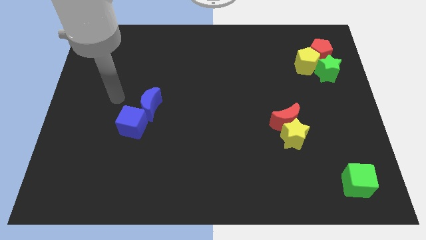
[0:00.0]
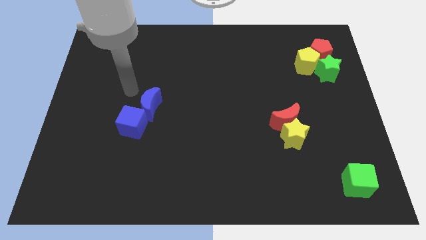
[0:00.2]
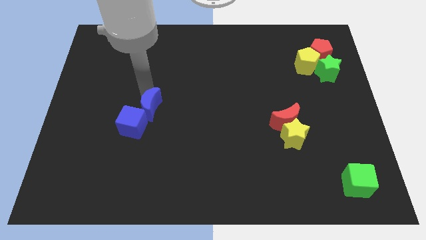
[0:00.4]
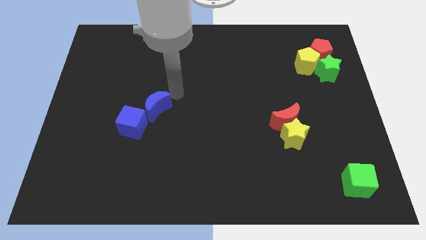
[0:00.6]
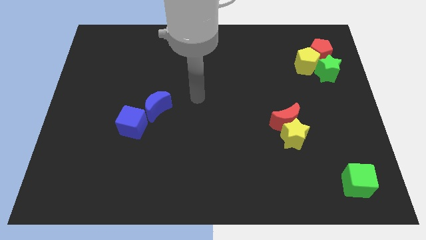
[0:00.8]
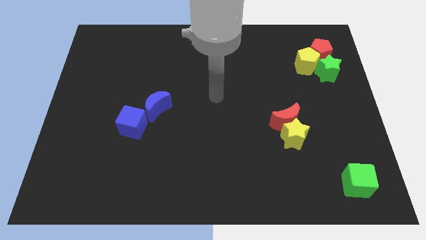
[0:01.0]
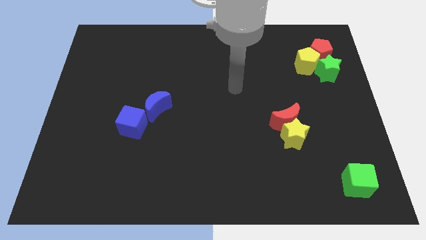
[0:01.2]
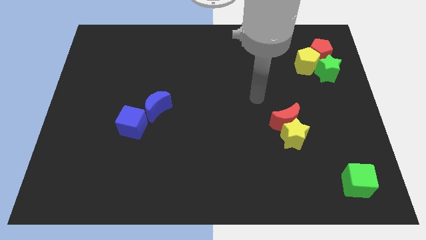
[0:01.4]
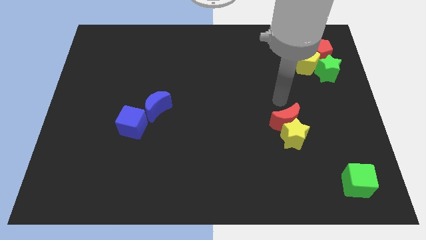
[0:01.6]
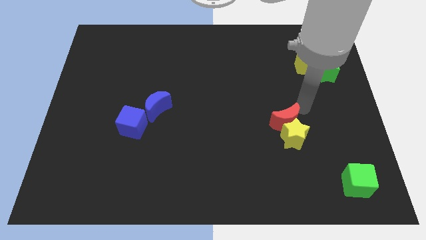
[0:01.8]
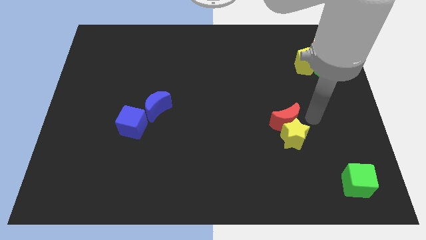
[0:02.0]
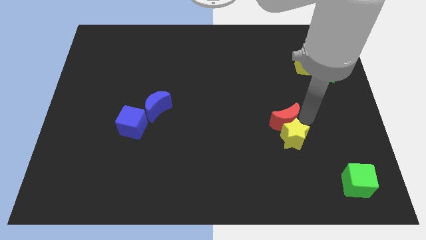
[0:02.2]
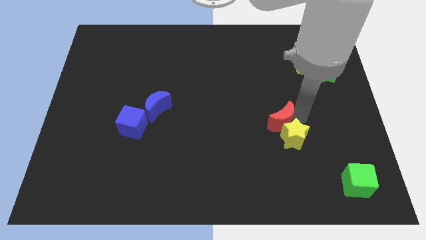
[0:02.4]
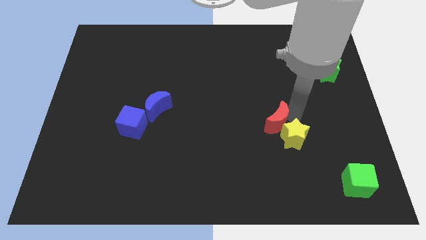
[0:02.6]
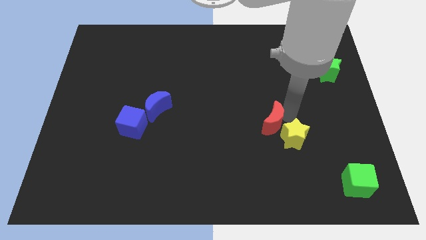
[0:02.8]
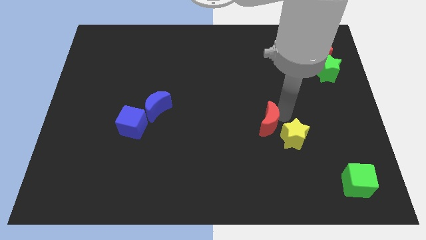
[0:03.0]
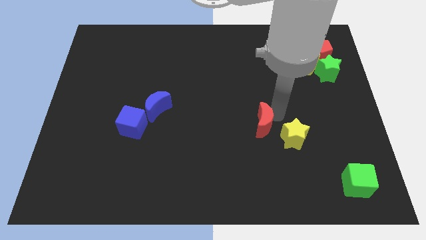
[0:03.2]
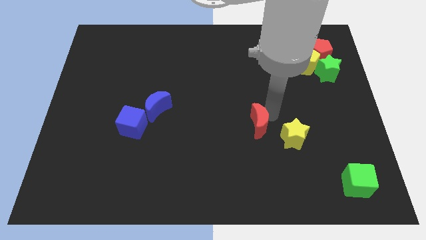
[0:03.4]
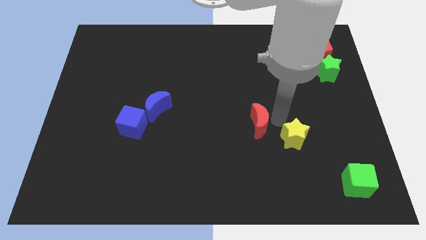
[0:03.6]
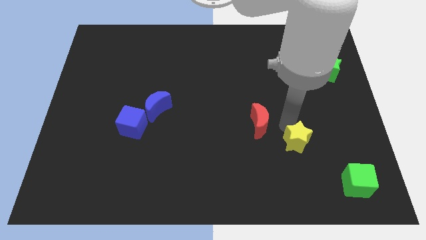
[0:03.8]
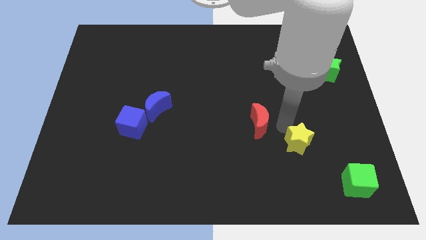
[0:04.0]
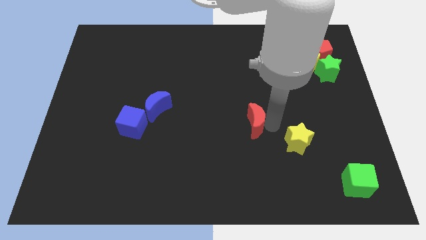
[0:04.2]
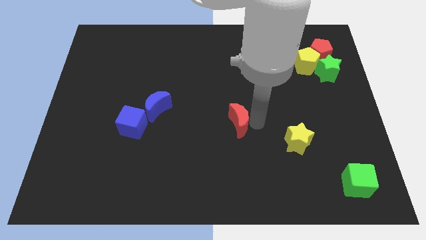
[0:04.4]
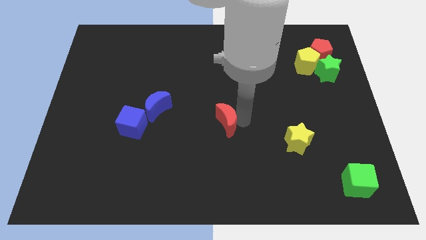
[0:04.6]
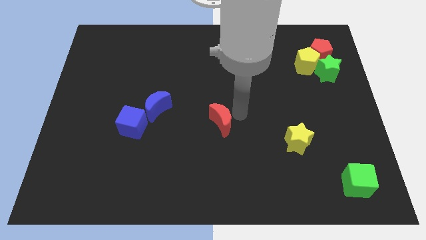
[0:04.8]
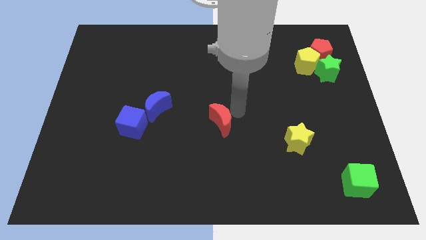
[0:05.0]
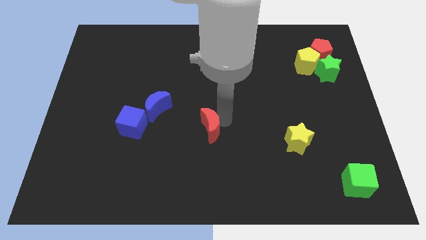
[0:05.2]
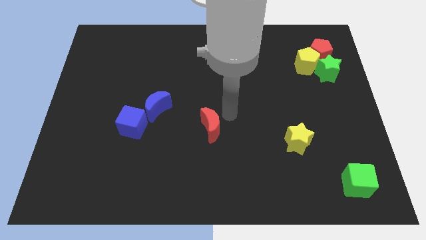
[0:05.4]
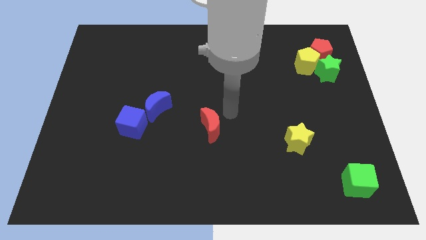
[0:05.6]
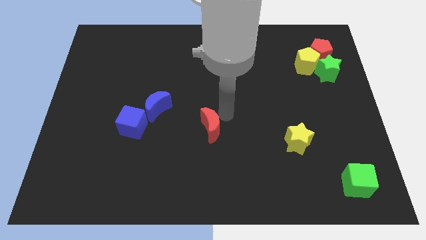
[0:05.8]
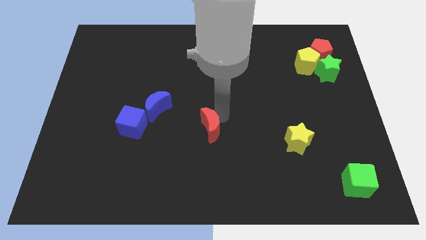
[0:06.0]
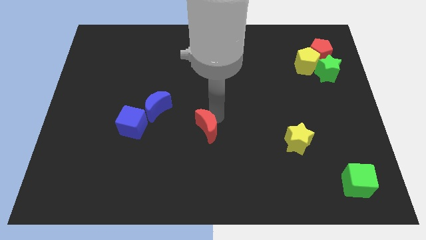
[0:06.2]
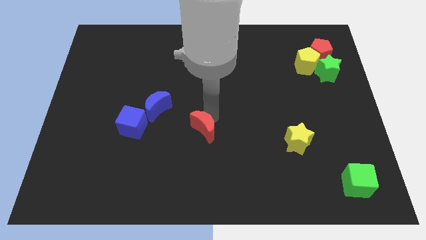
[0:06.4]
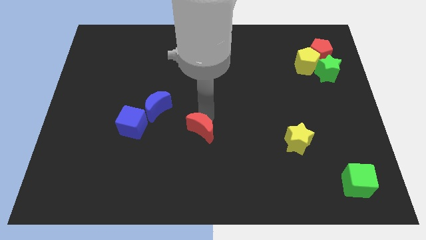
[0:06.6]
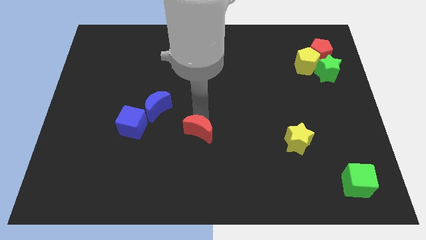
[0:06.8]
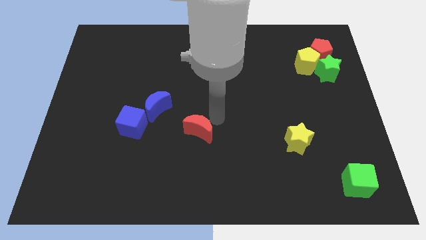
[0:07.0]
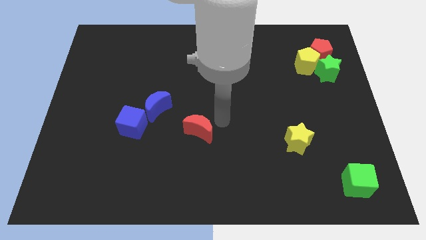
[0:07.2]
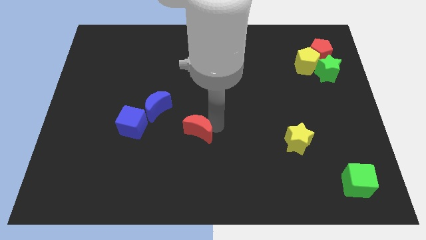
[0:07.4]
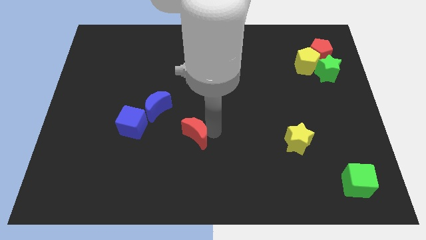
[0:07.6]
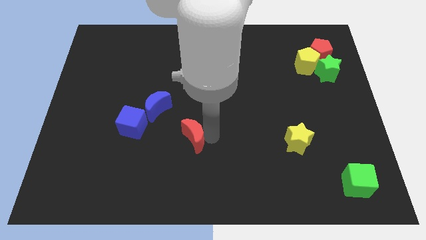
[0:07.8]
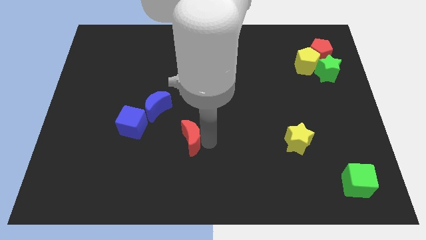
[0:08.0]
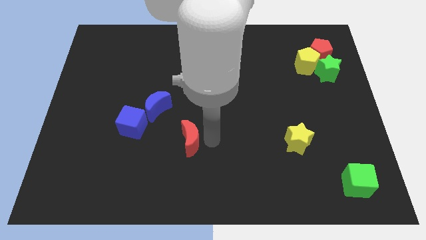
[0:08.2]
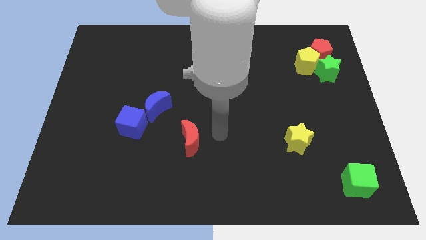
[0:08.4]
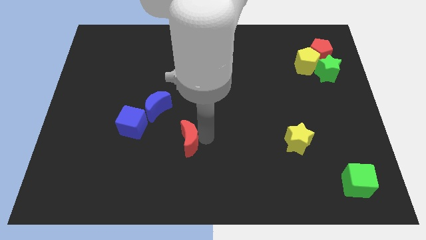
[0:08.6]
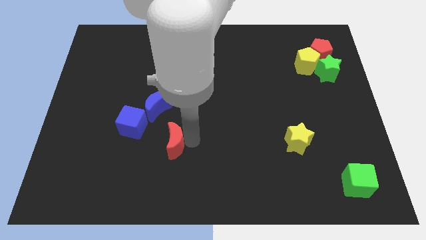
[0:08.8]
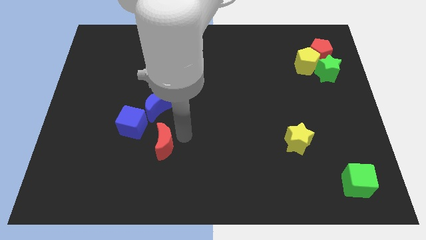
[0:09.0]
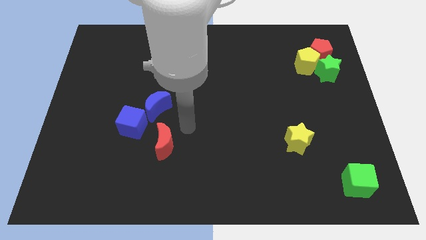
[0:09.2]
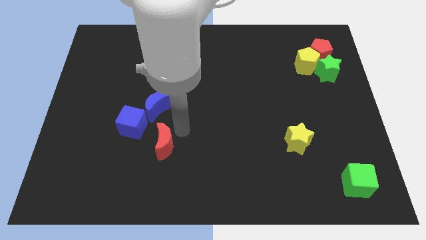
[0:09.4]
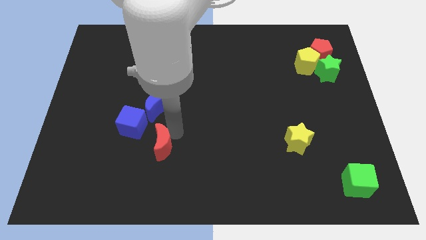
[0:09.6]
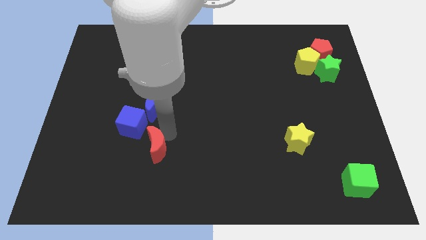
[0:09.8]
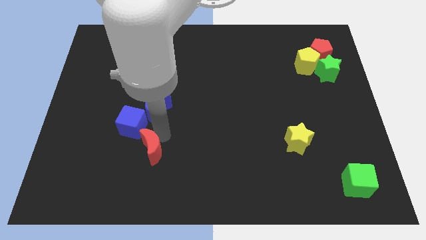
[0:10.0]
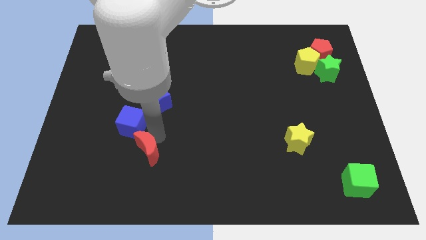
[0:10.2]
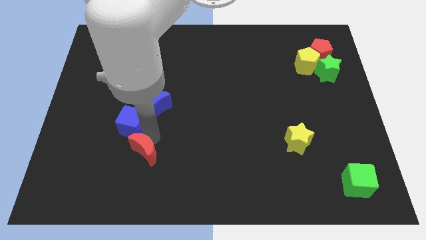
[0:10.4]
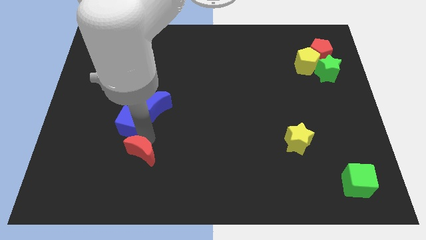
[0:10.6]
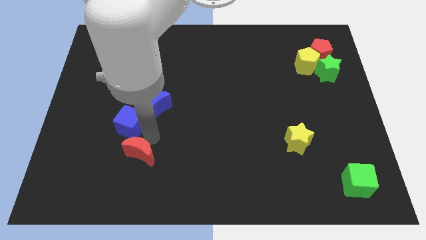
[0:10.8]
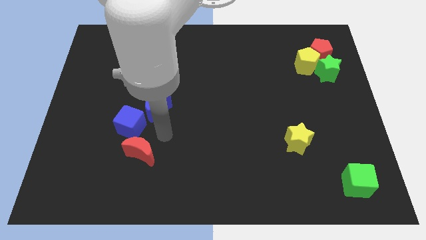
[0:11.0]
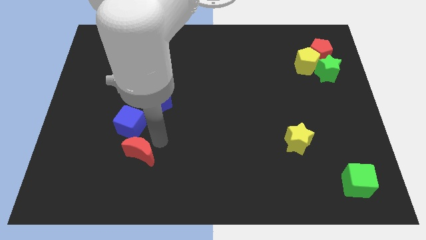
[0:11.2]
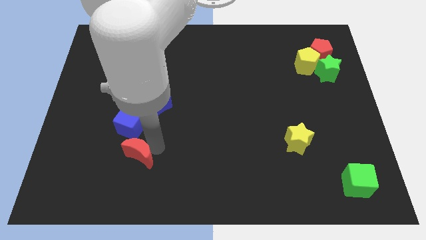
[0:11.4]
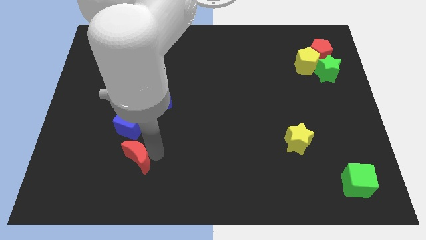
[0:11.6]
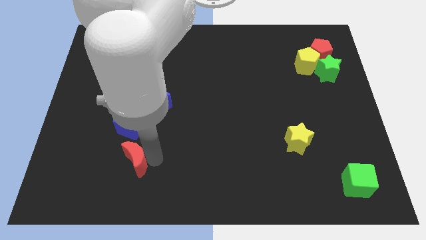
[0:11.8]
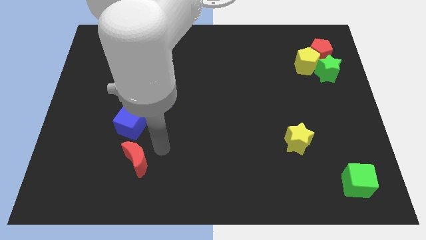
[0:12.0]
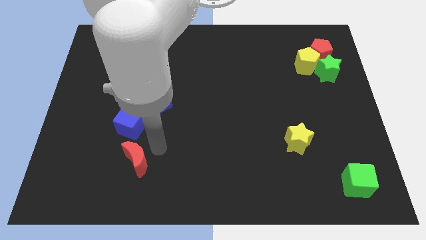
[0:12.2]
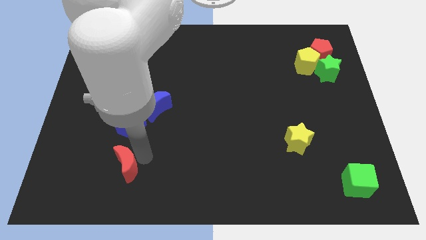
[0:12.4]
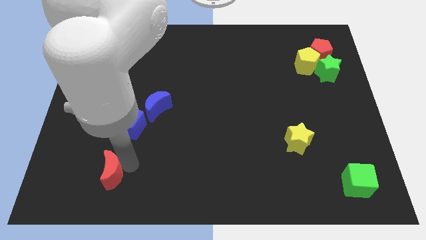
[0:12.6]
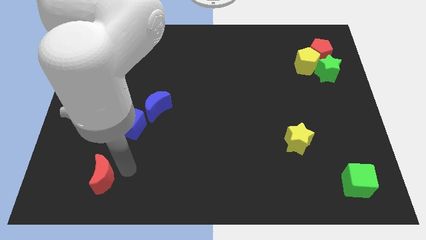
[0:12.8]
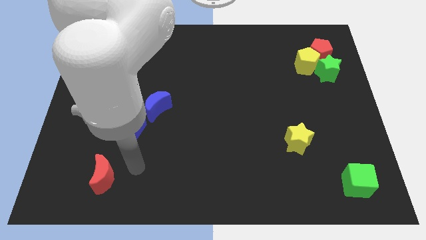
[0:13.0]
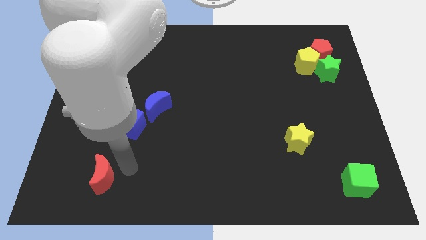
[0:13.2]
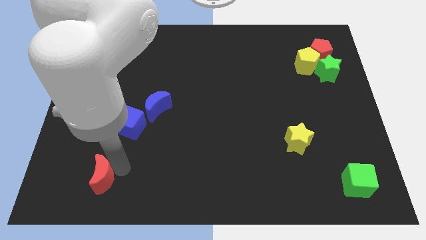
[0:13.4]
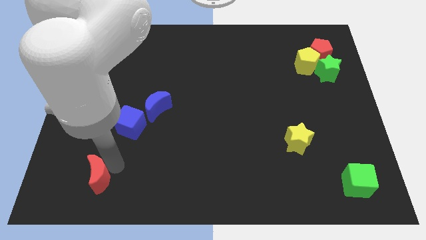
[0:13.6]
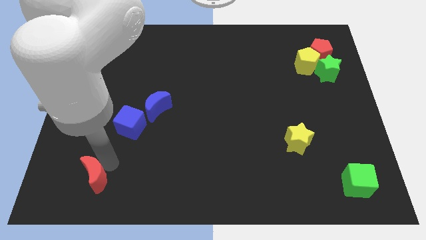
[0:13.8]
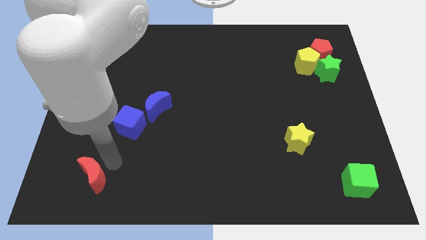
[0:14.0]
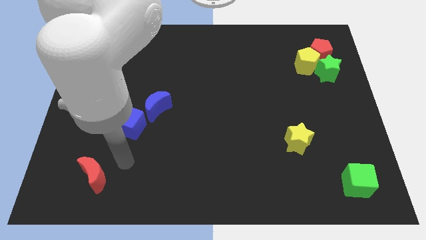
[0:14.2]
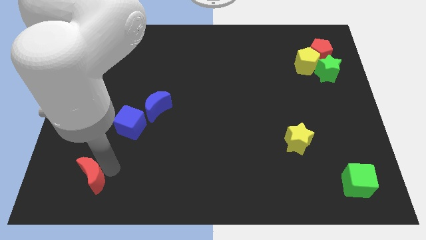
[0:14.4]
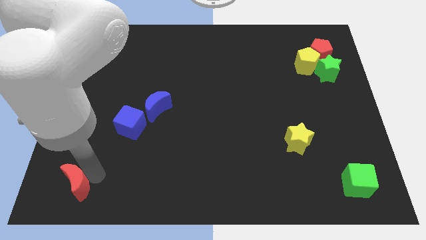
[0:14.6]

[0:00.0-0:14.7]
move the red moon to the bottom left of the board
